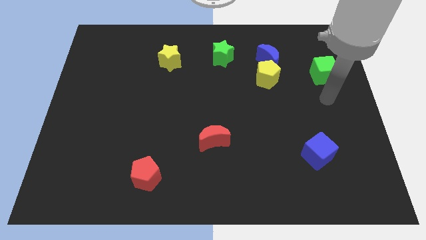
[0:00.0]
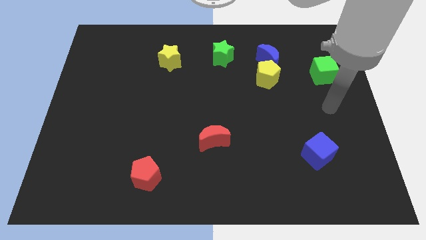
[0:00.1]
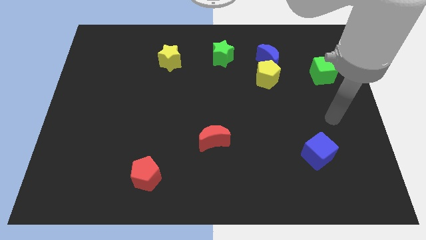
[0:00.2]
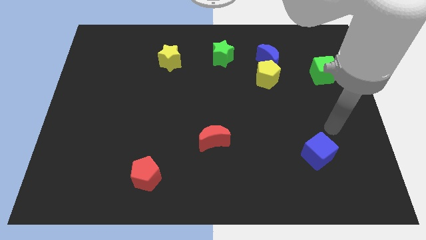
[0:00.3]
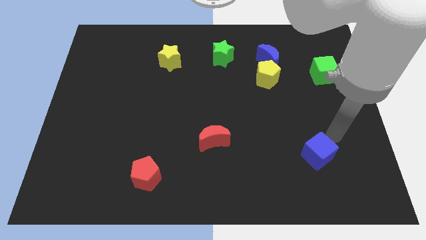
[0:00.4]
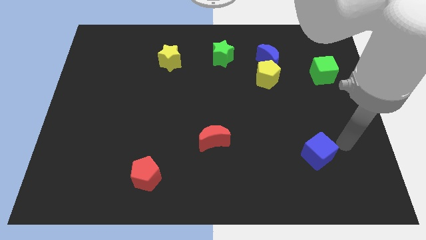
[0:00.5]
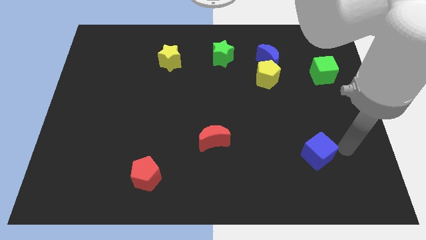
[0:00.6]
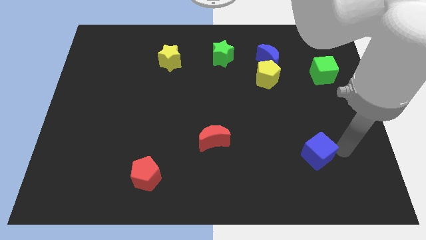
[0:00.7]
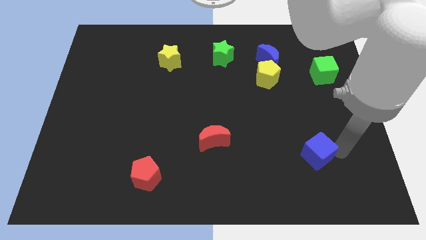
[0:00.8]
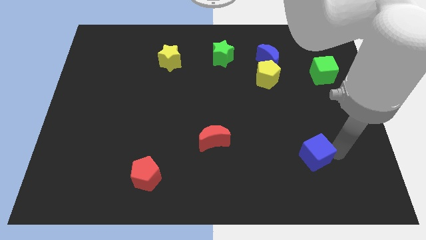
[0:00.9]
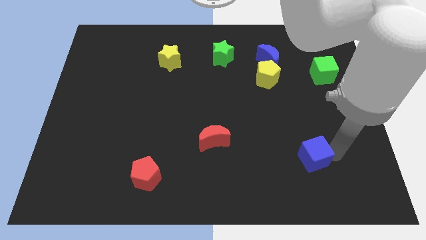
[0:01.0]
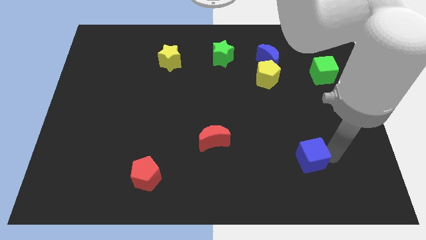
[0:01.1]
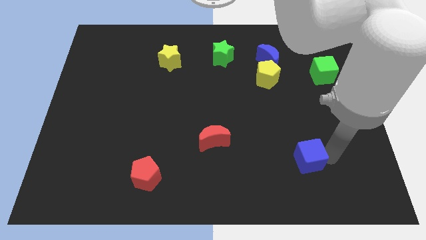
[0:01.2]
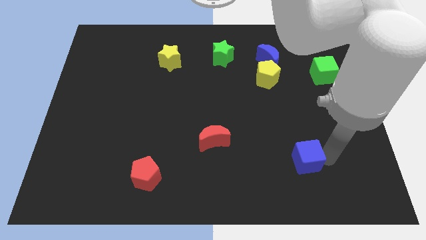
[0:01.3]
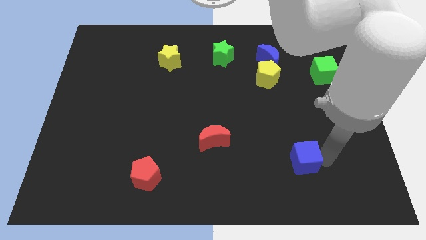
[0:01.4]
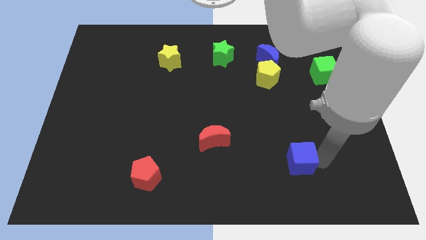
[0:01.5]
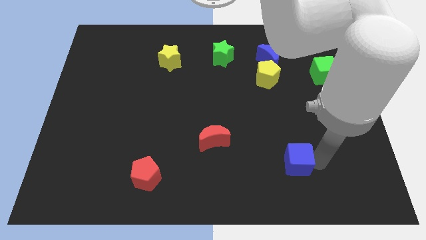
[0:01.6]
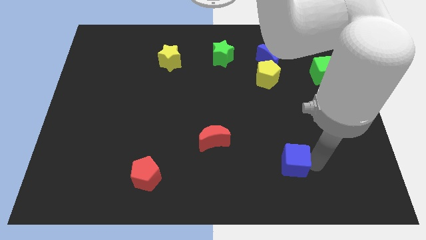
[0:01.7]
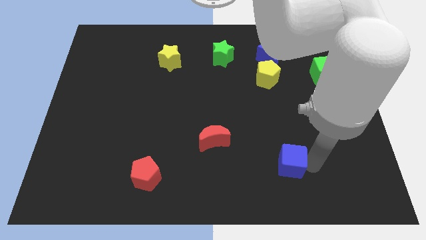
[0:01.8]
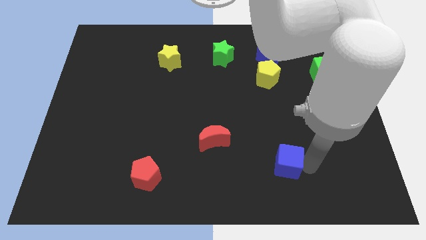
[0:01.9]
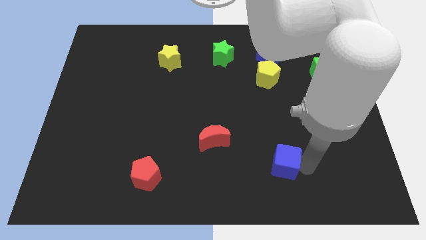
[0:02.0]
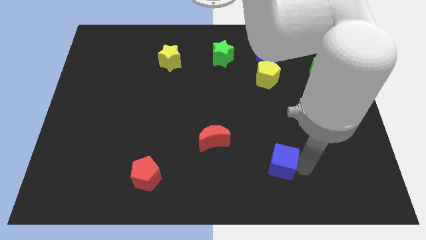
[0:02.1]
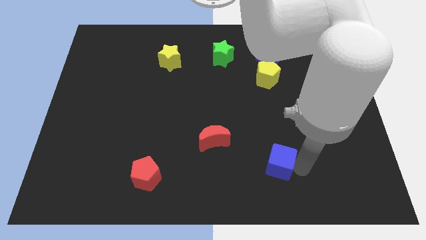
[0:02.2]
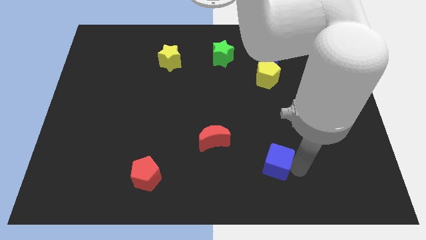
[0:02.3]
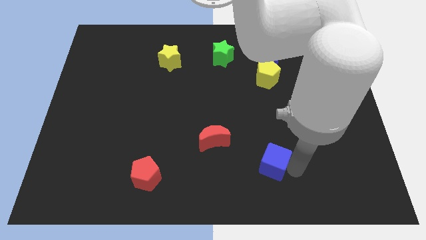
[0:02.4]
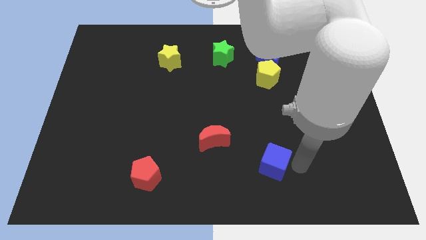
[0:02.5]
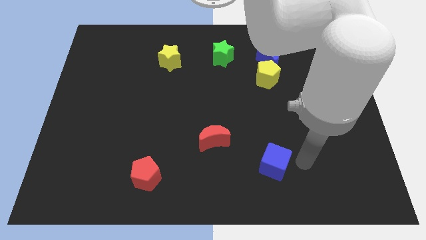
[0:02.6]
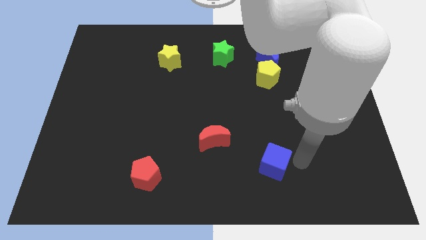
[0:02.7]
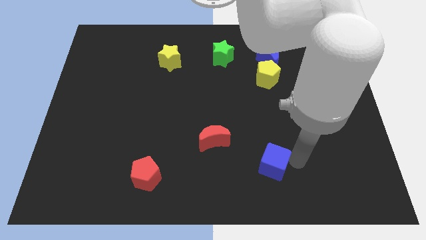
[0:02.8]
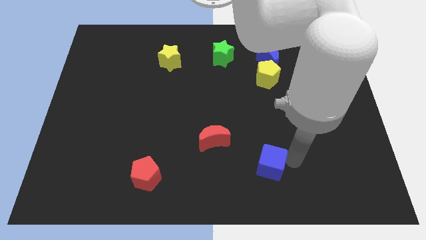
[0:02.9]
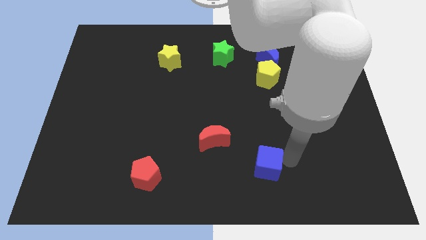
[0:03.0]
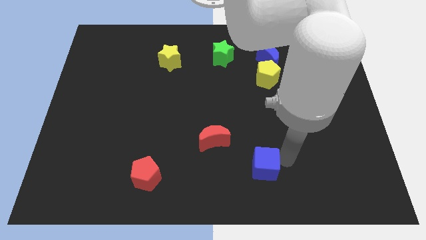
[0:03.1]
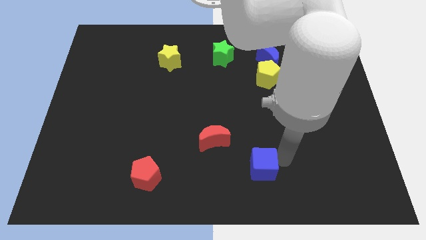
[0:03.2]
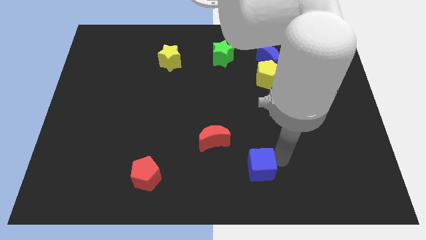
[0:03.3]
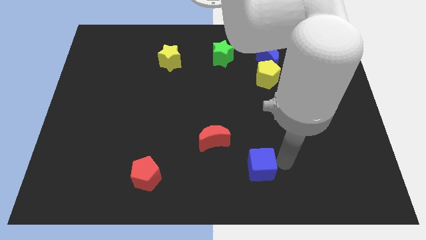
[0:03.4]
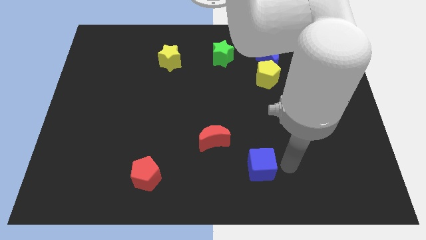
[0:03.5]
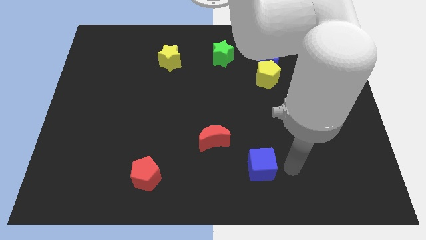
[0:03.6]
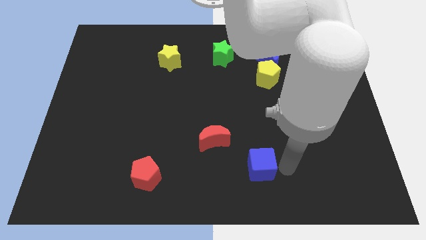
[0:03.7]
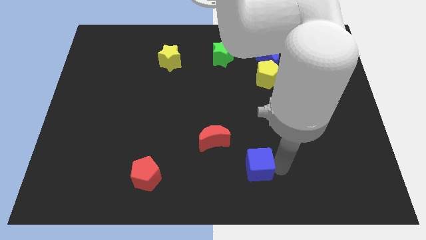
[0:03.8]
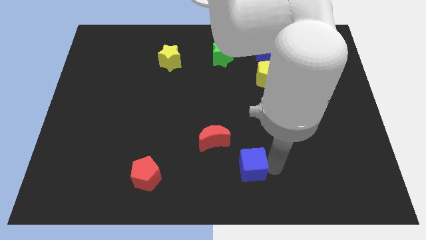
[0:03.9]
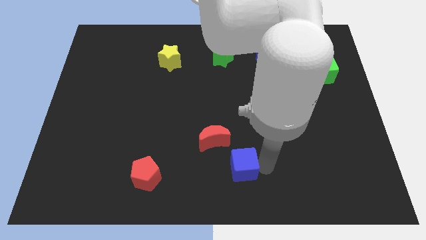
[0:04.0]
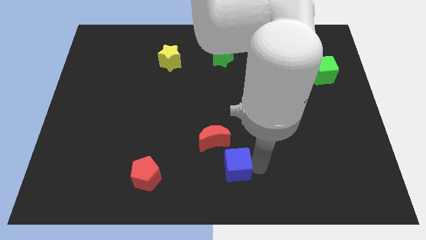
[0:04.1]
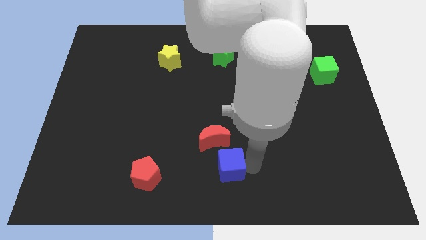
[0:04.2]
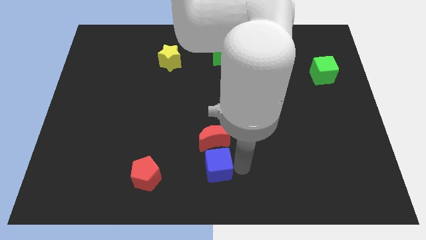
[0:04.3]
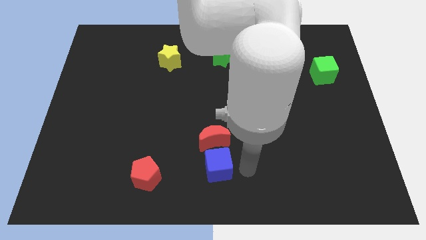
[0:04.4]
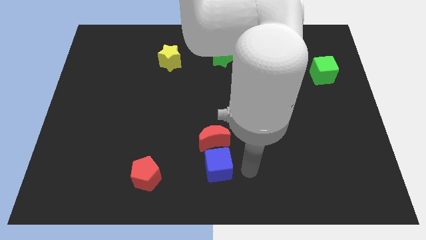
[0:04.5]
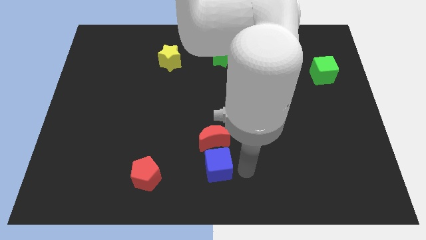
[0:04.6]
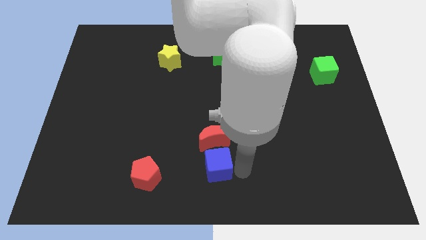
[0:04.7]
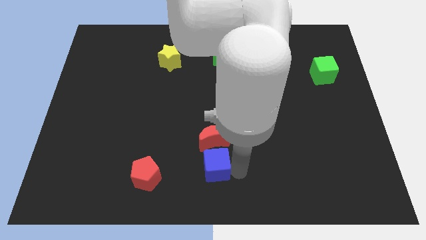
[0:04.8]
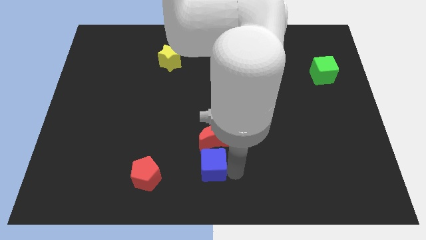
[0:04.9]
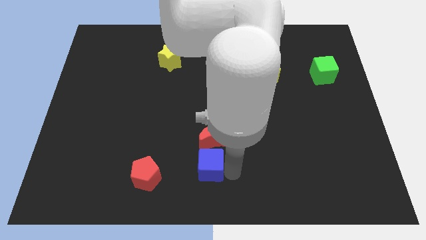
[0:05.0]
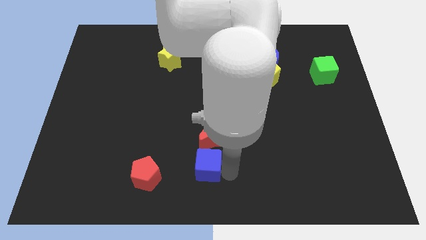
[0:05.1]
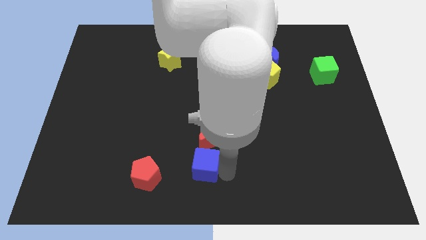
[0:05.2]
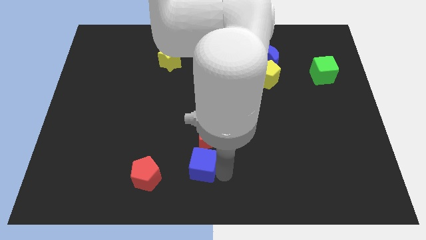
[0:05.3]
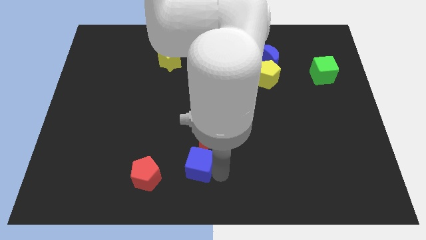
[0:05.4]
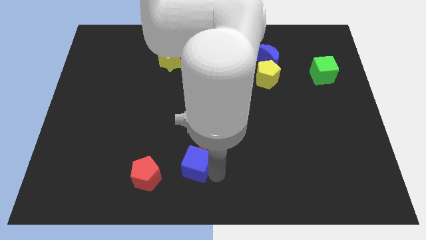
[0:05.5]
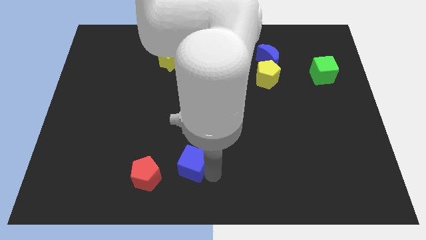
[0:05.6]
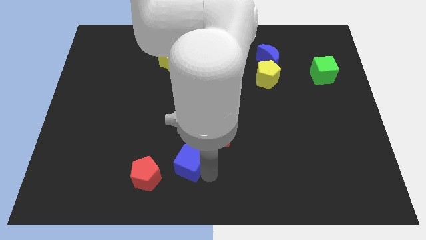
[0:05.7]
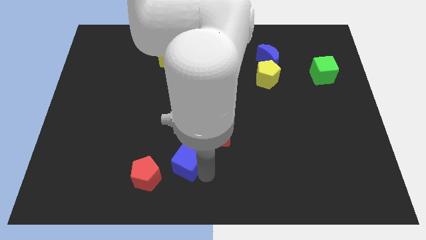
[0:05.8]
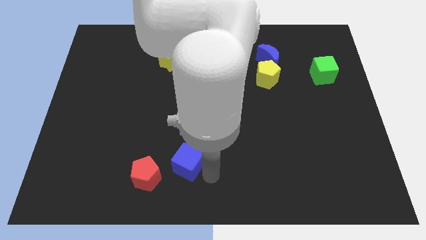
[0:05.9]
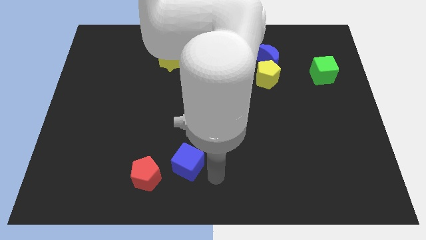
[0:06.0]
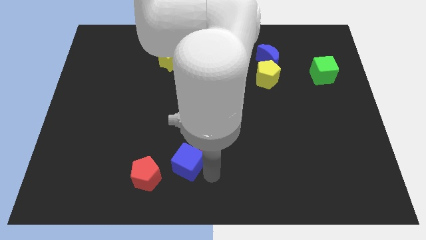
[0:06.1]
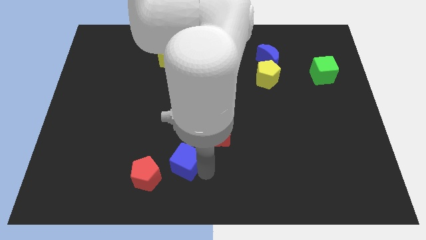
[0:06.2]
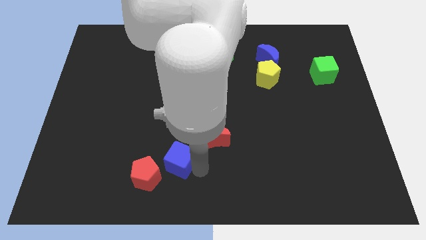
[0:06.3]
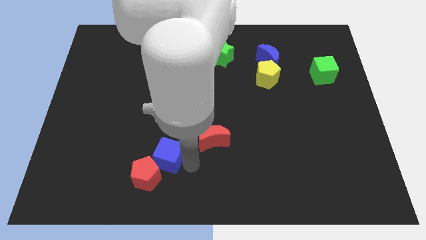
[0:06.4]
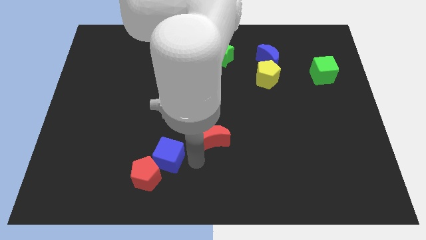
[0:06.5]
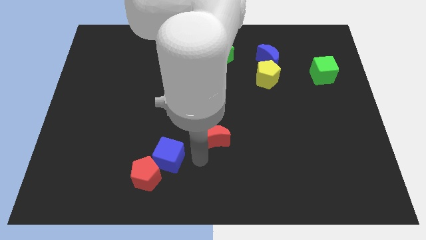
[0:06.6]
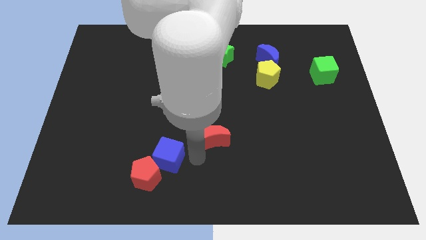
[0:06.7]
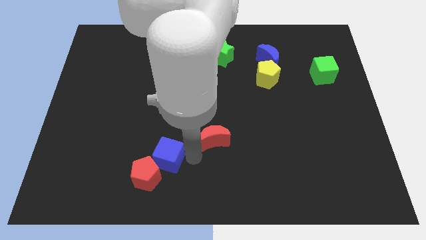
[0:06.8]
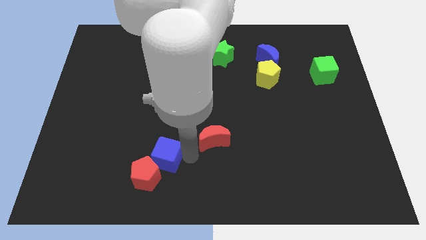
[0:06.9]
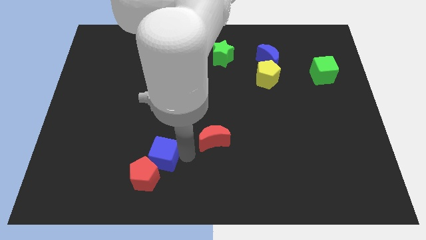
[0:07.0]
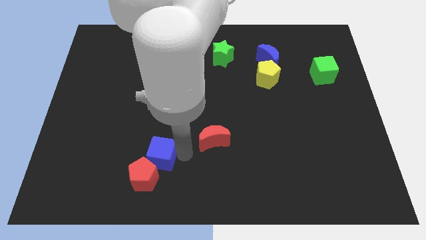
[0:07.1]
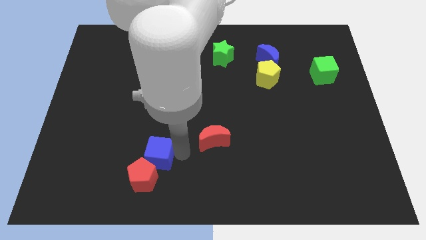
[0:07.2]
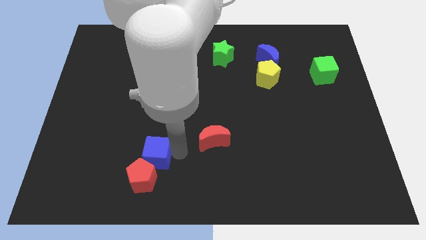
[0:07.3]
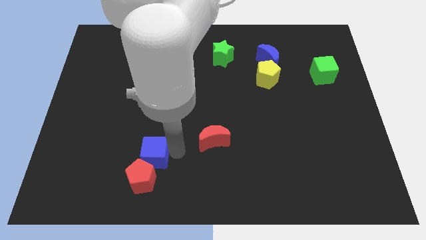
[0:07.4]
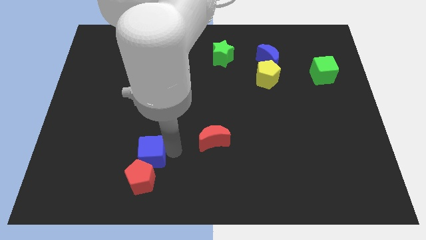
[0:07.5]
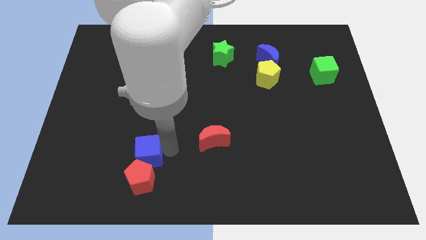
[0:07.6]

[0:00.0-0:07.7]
push the blue cube to the top left side of the red pentagon
